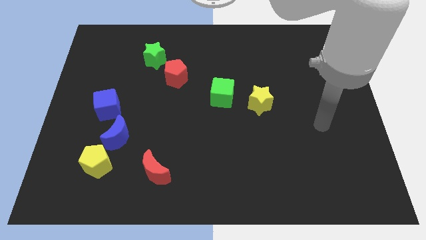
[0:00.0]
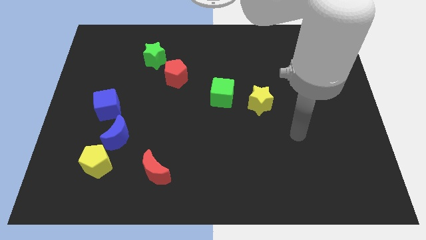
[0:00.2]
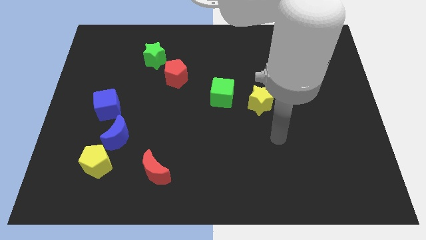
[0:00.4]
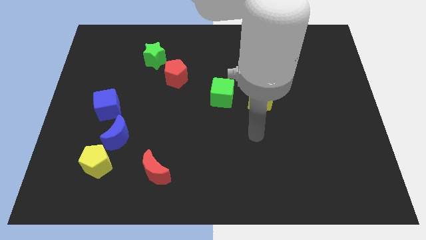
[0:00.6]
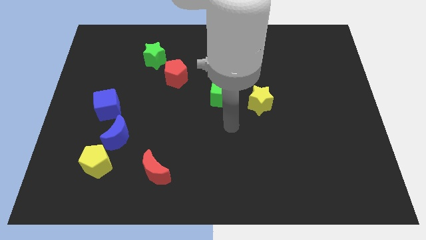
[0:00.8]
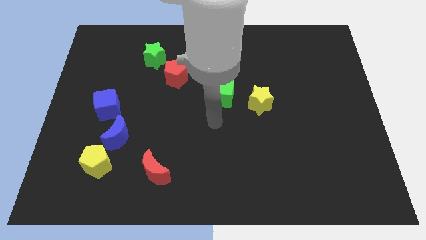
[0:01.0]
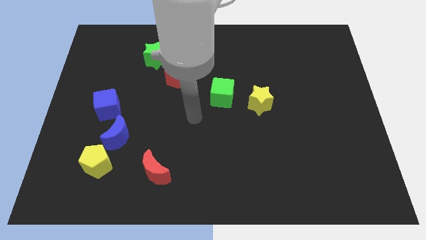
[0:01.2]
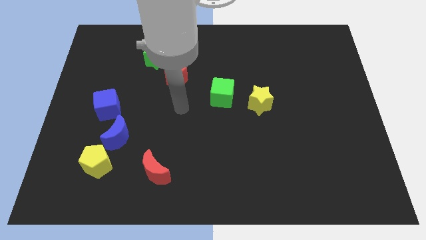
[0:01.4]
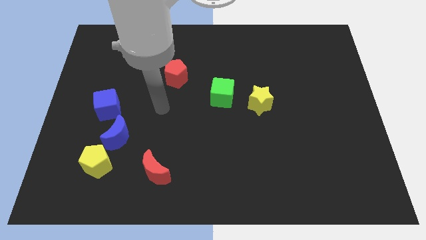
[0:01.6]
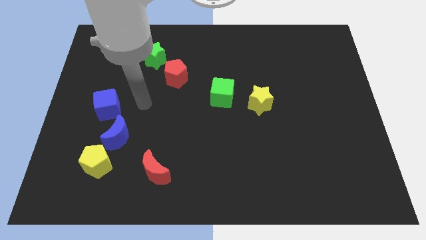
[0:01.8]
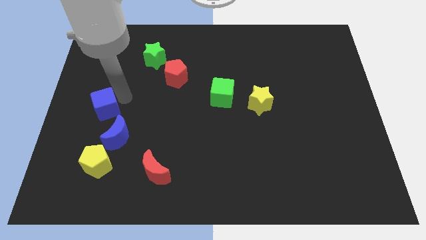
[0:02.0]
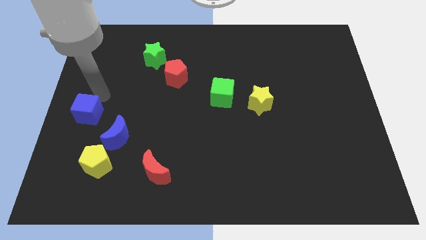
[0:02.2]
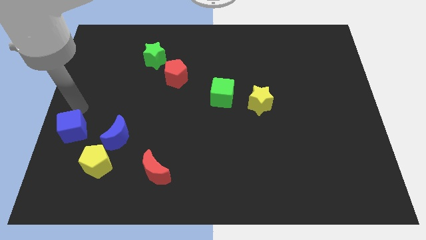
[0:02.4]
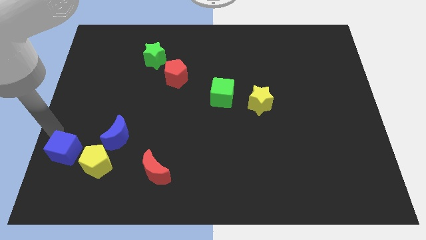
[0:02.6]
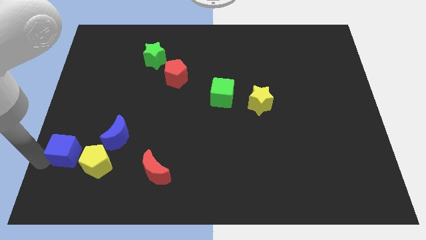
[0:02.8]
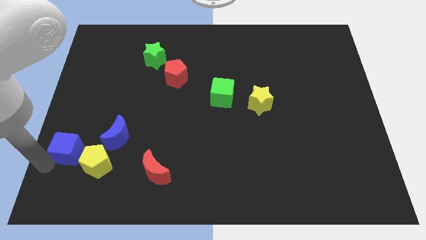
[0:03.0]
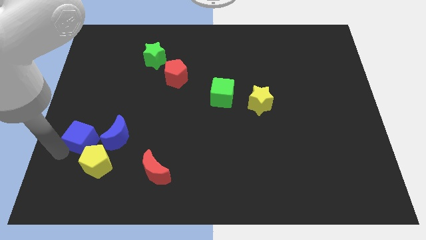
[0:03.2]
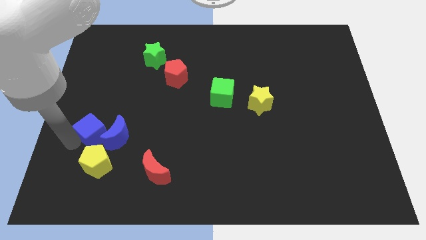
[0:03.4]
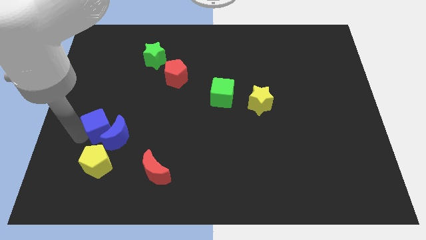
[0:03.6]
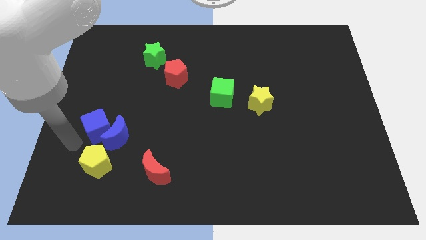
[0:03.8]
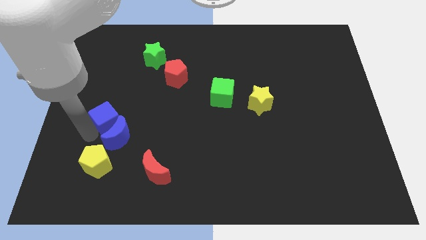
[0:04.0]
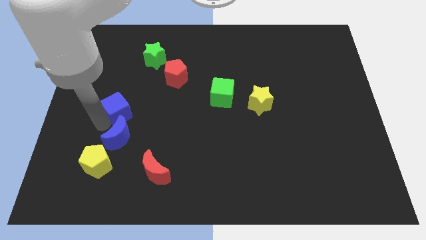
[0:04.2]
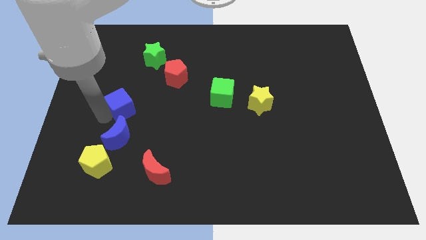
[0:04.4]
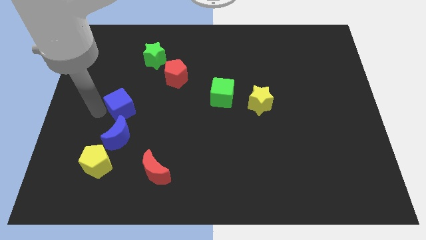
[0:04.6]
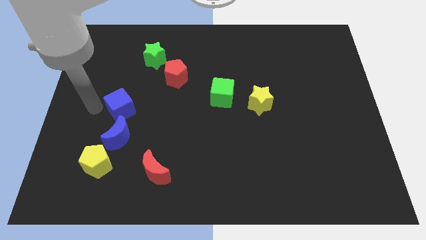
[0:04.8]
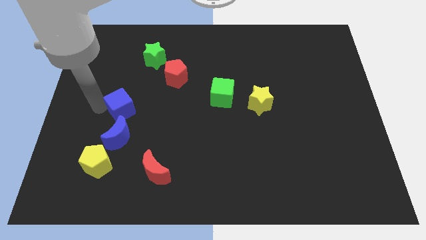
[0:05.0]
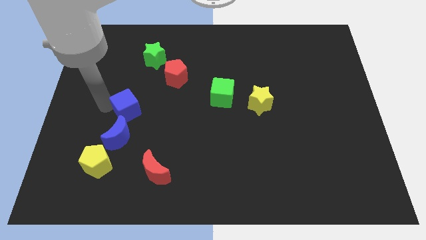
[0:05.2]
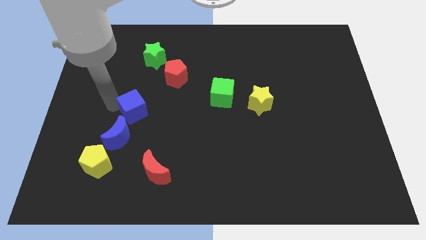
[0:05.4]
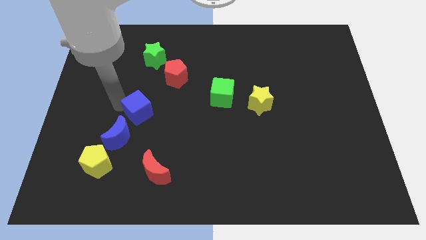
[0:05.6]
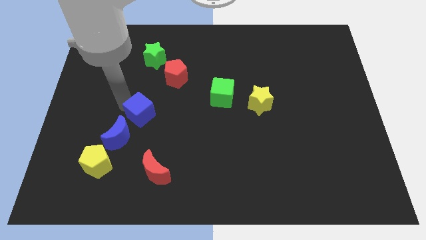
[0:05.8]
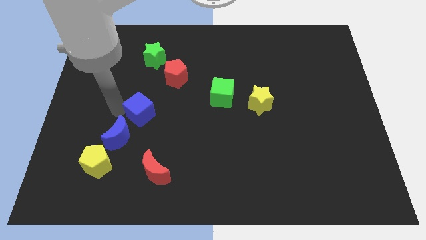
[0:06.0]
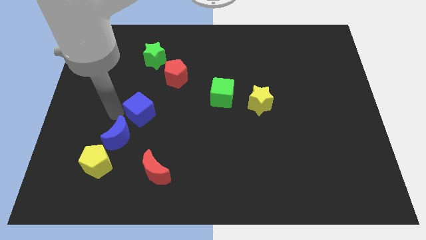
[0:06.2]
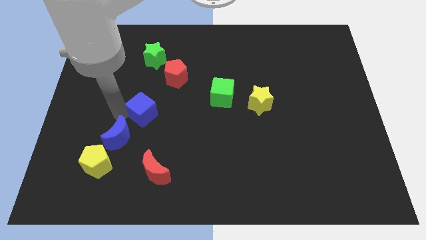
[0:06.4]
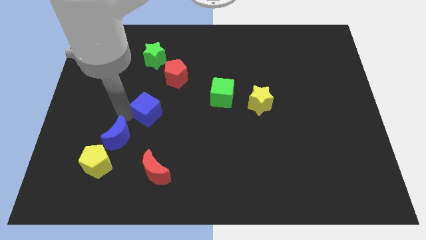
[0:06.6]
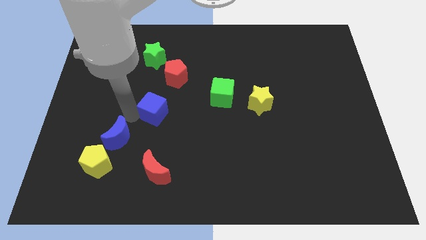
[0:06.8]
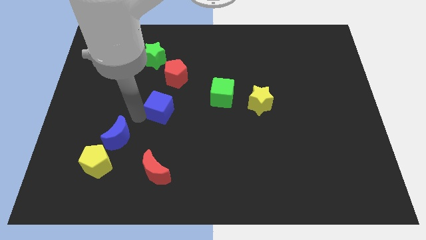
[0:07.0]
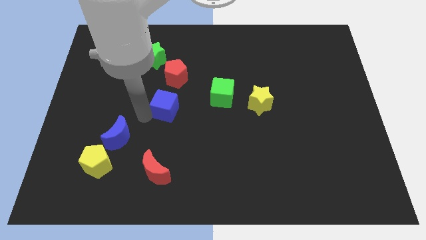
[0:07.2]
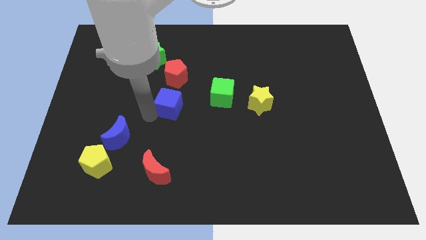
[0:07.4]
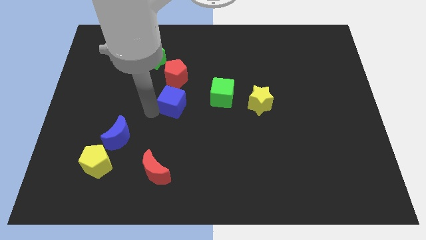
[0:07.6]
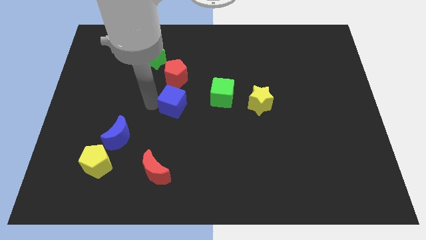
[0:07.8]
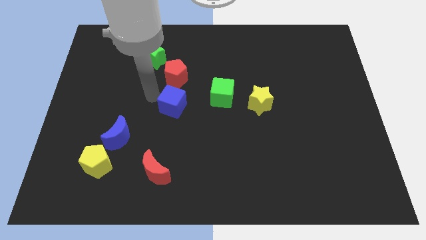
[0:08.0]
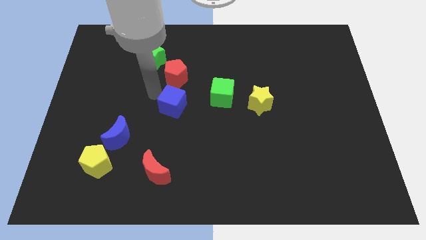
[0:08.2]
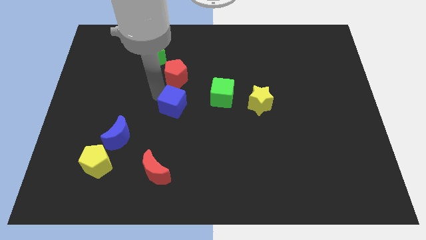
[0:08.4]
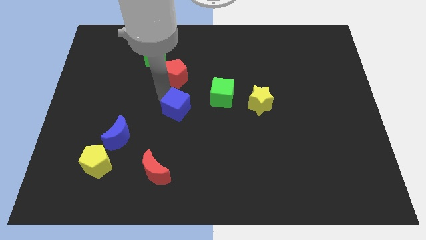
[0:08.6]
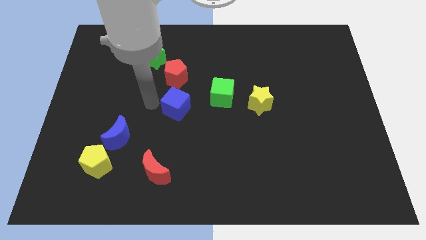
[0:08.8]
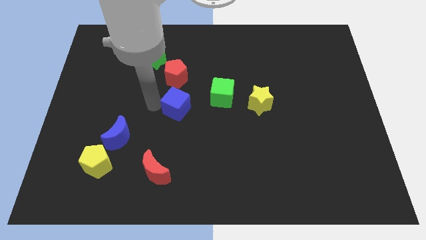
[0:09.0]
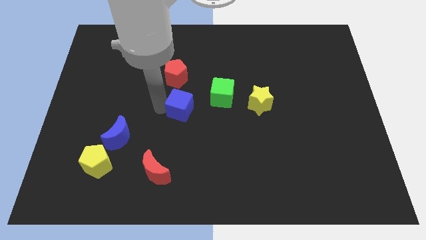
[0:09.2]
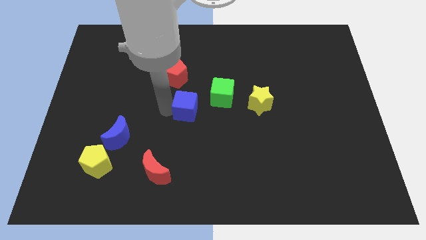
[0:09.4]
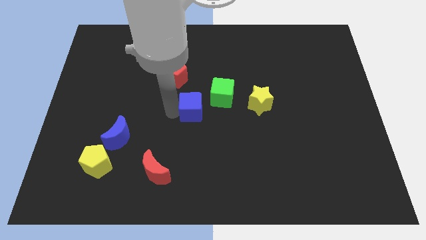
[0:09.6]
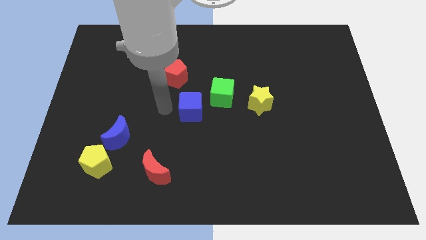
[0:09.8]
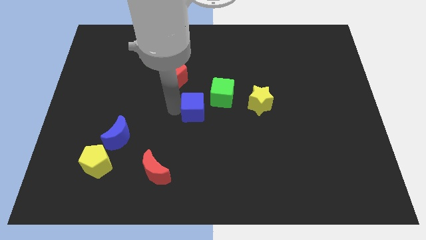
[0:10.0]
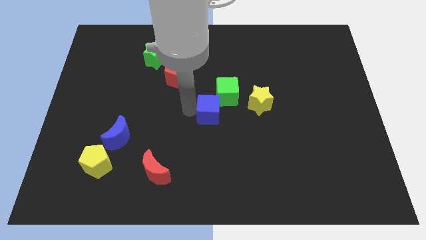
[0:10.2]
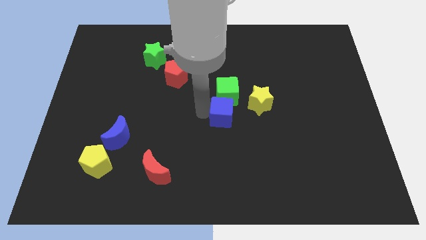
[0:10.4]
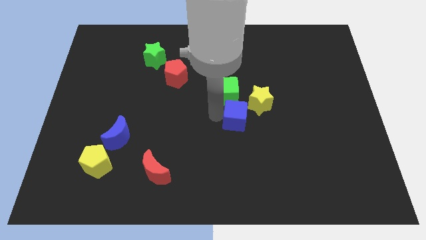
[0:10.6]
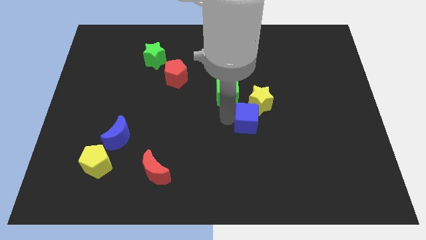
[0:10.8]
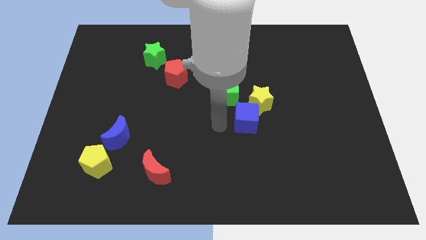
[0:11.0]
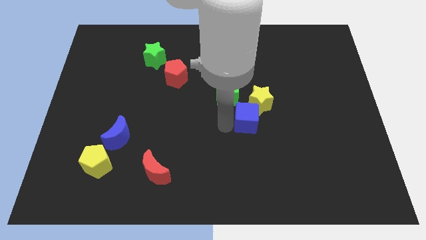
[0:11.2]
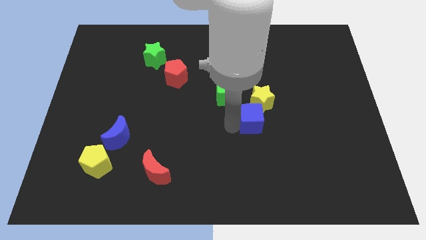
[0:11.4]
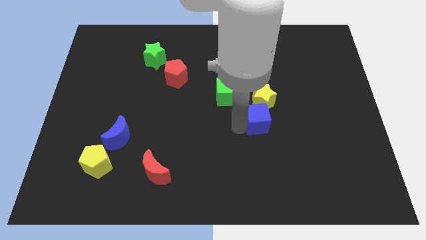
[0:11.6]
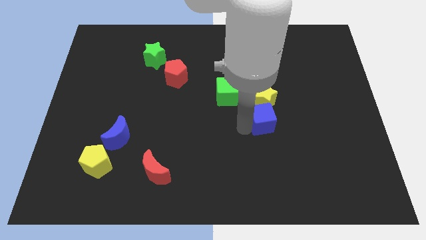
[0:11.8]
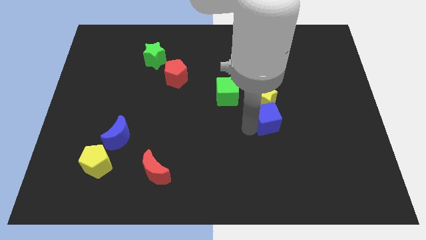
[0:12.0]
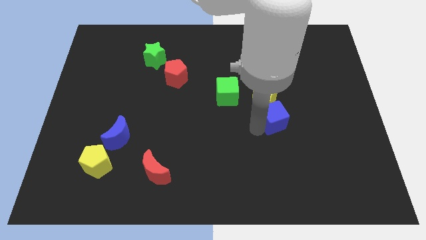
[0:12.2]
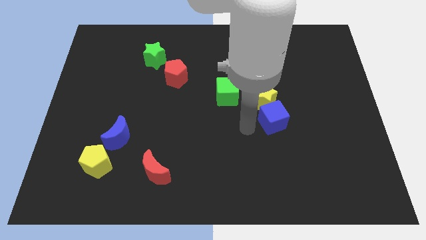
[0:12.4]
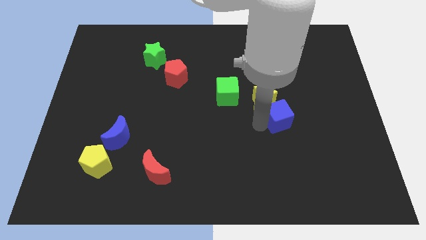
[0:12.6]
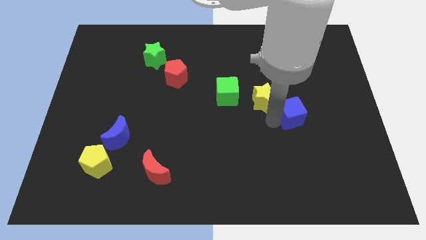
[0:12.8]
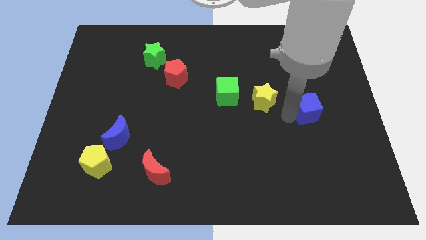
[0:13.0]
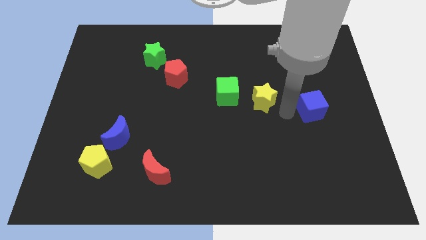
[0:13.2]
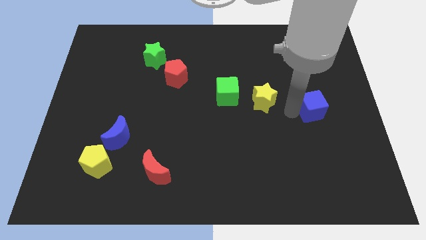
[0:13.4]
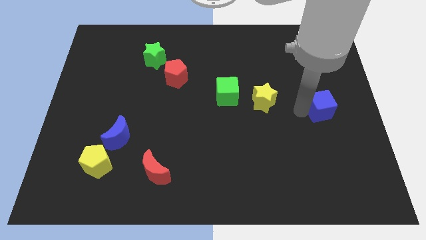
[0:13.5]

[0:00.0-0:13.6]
slide the blue cube to the center right
